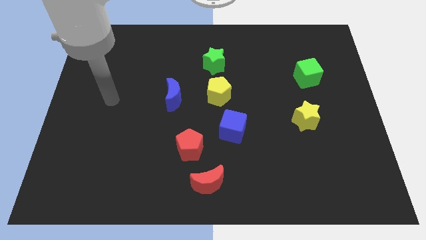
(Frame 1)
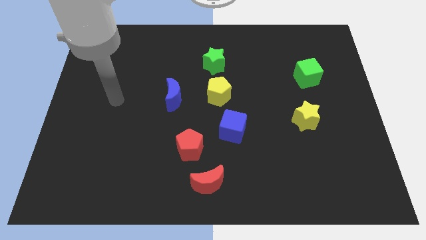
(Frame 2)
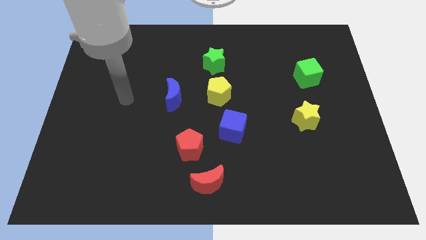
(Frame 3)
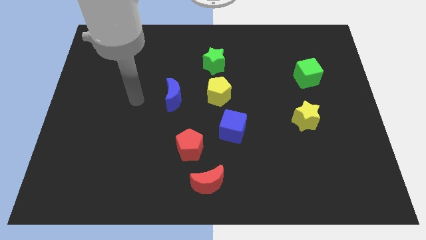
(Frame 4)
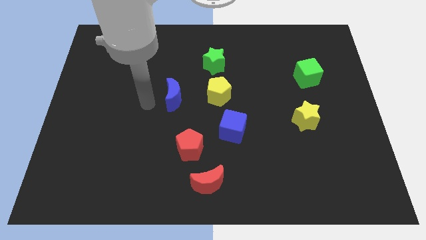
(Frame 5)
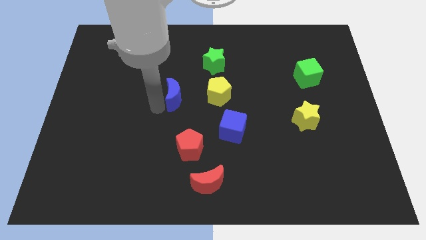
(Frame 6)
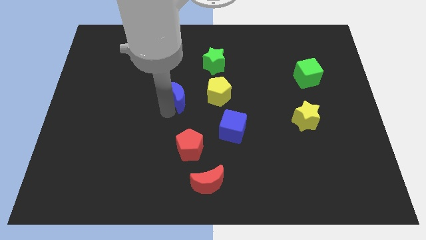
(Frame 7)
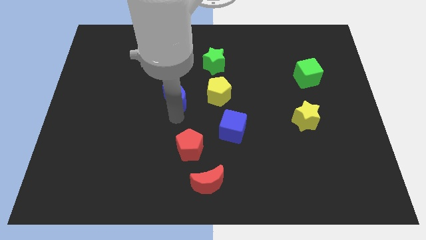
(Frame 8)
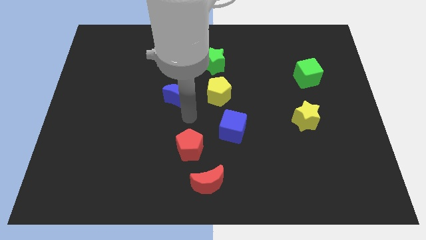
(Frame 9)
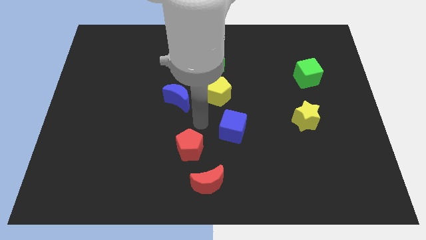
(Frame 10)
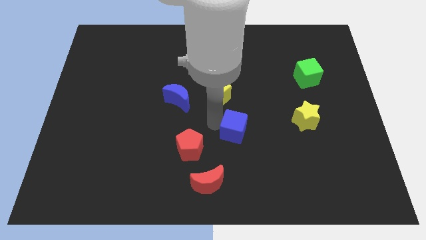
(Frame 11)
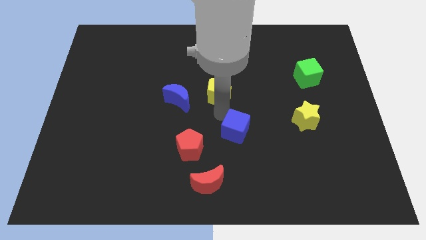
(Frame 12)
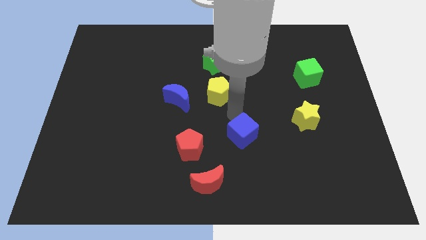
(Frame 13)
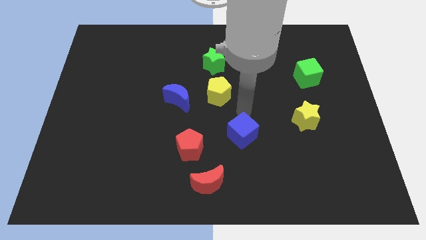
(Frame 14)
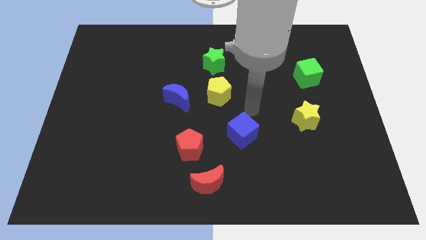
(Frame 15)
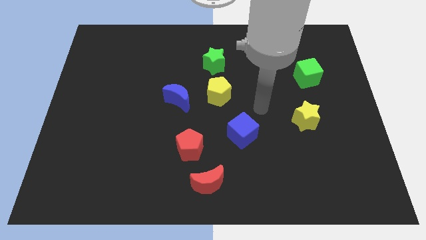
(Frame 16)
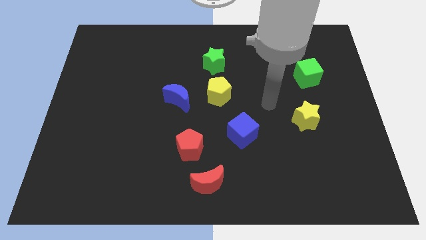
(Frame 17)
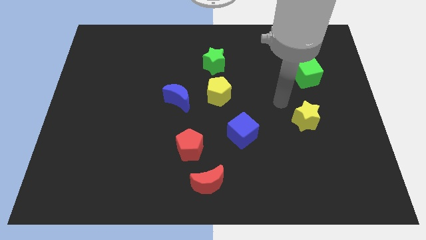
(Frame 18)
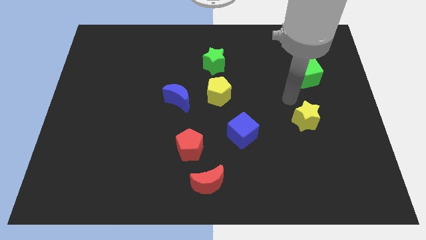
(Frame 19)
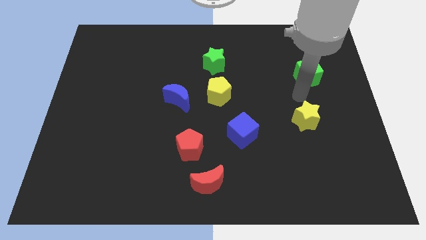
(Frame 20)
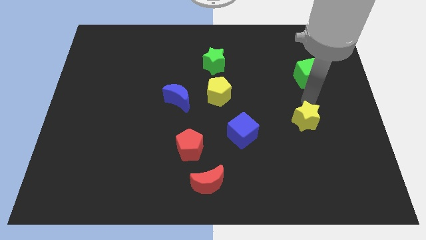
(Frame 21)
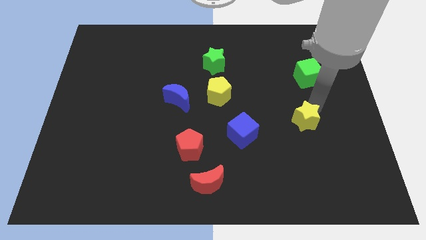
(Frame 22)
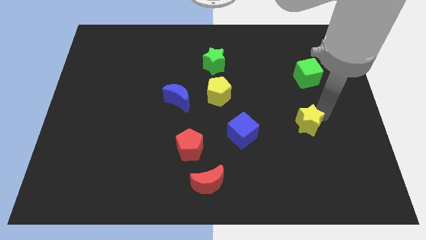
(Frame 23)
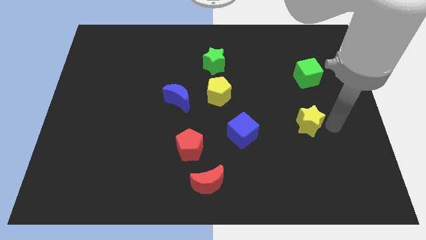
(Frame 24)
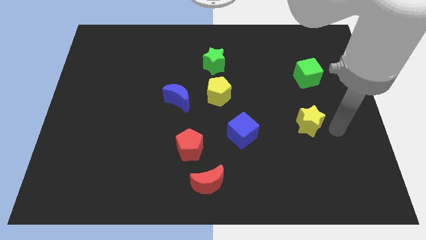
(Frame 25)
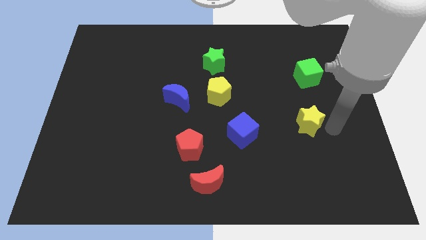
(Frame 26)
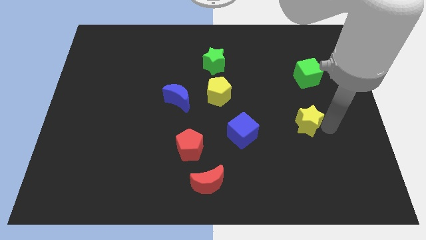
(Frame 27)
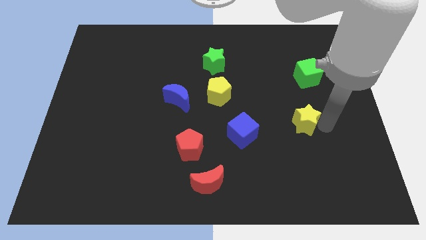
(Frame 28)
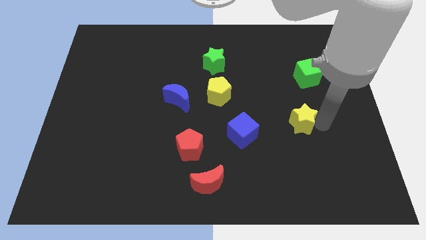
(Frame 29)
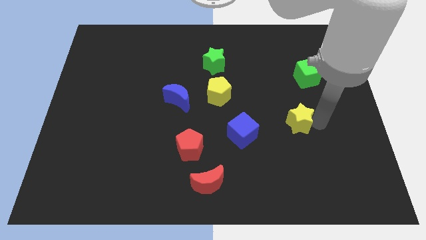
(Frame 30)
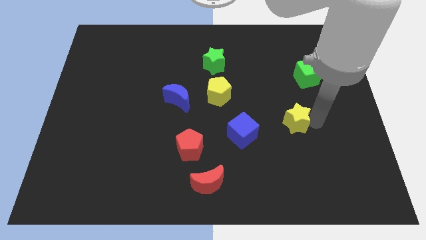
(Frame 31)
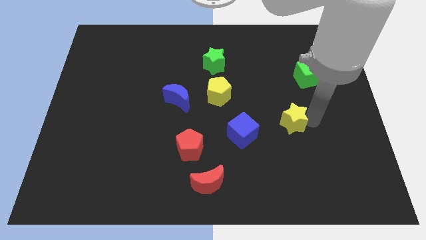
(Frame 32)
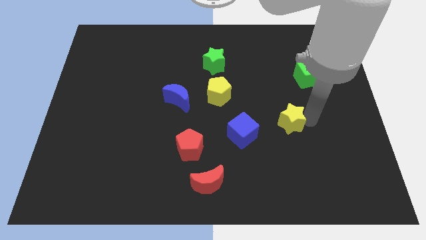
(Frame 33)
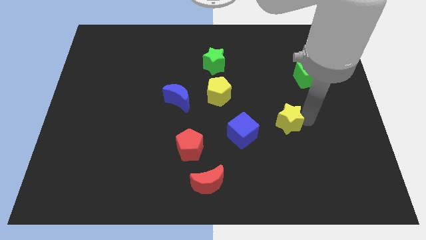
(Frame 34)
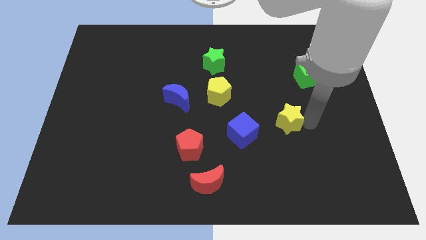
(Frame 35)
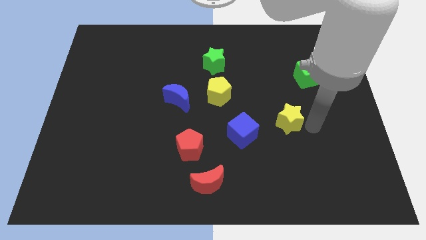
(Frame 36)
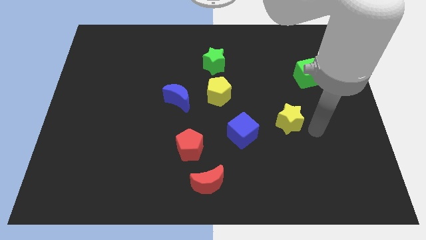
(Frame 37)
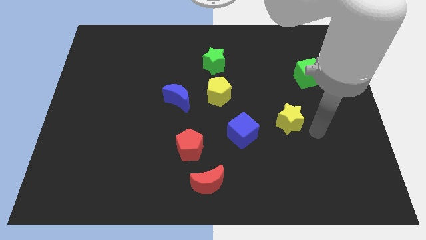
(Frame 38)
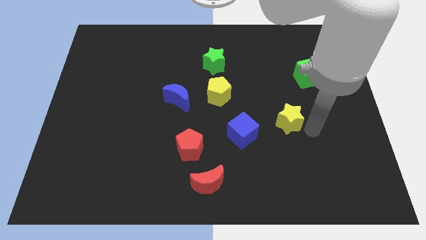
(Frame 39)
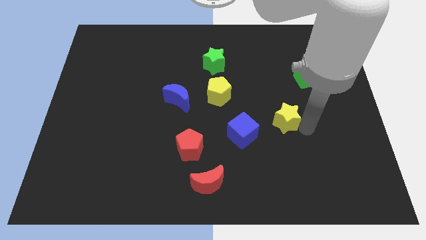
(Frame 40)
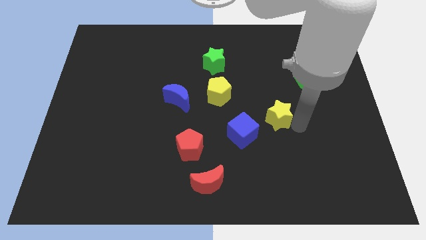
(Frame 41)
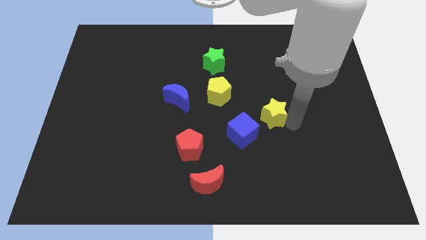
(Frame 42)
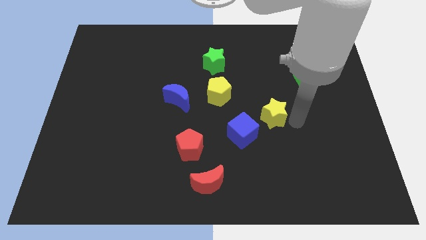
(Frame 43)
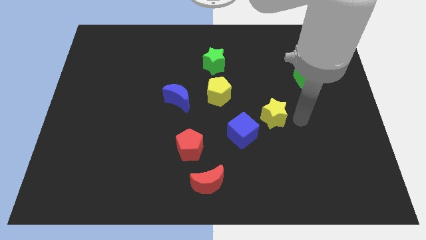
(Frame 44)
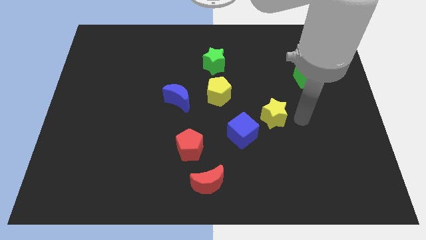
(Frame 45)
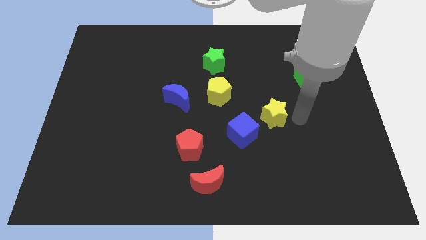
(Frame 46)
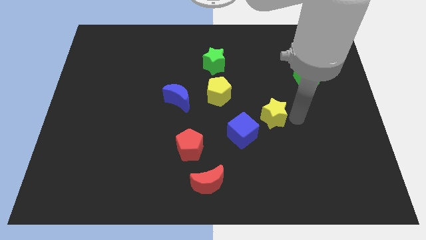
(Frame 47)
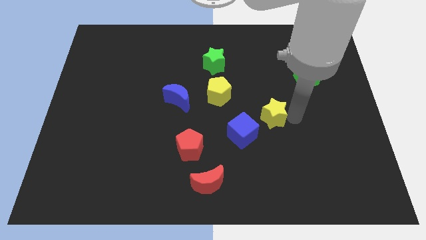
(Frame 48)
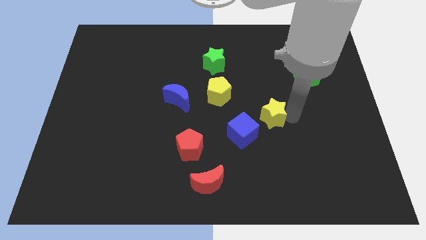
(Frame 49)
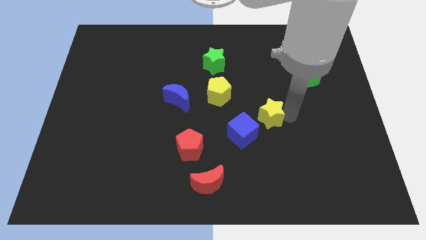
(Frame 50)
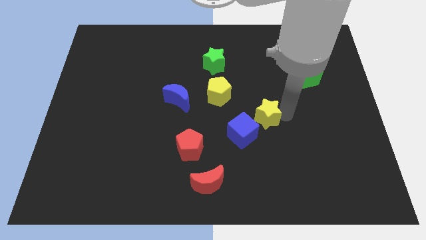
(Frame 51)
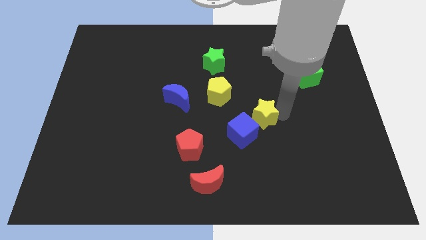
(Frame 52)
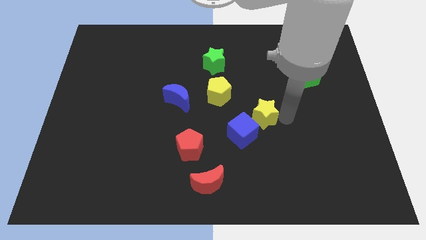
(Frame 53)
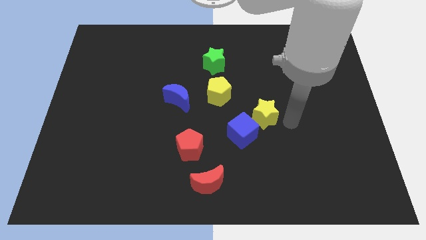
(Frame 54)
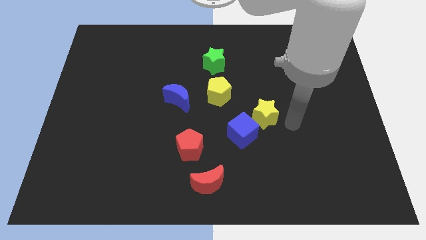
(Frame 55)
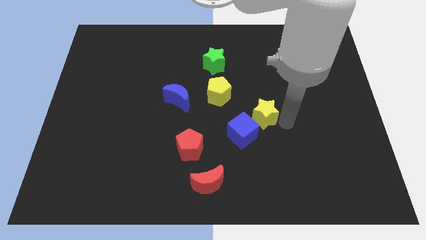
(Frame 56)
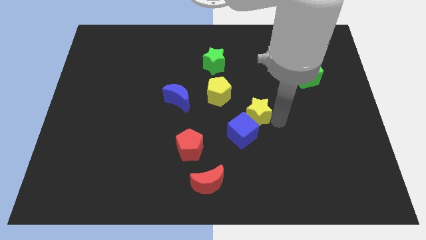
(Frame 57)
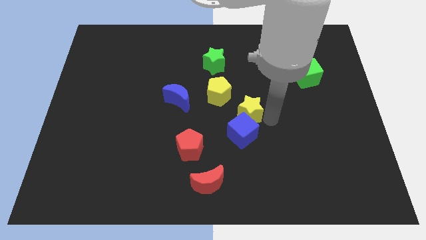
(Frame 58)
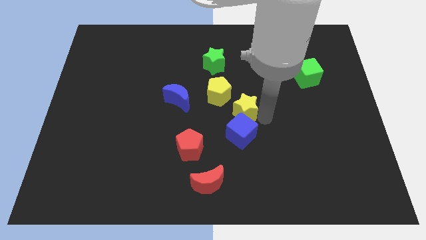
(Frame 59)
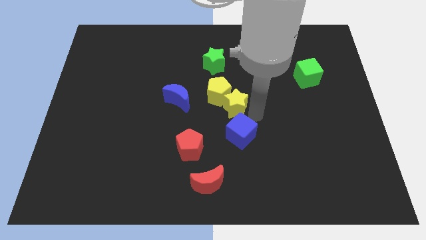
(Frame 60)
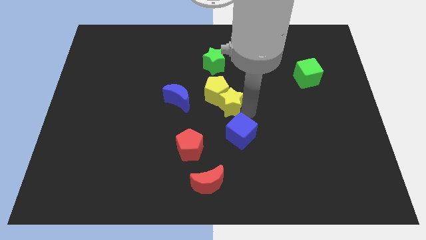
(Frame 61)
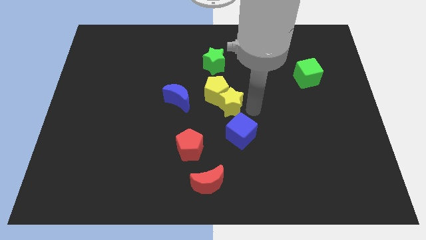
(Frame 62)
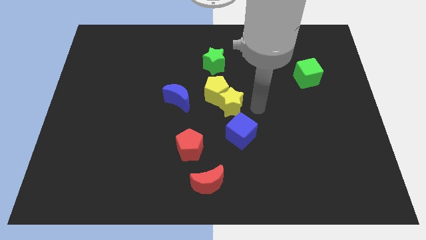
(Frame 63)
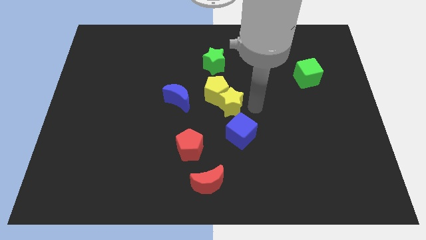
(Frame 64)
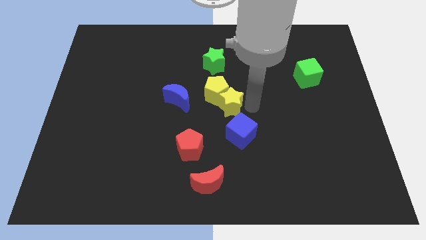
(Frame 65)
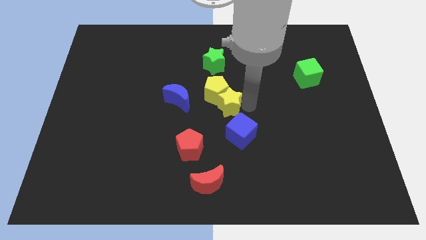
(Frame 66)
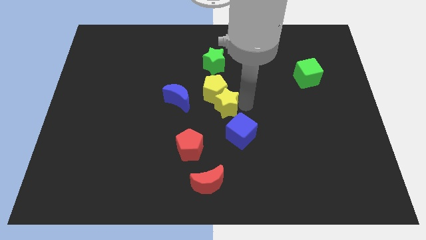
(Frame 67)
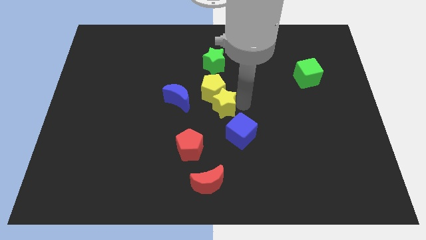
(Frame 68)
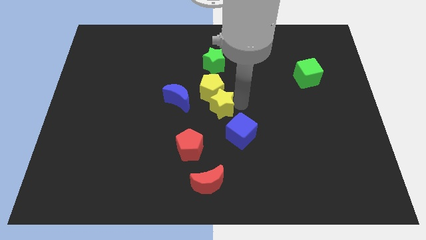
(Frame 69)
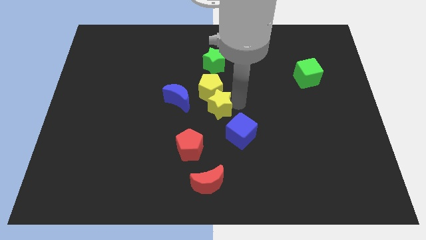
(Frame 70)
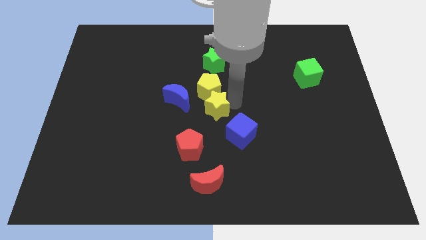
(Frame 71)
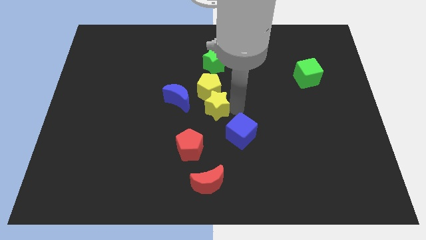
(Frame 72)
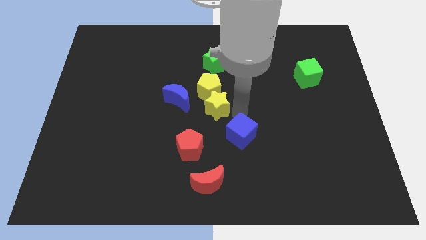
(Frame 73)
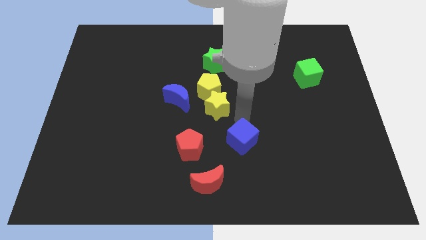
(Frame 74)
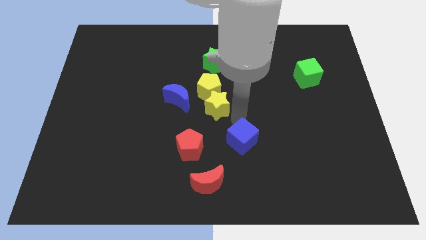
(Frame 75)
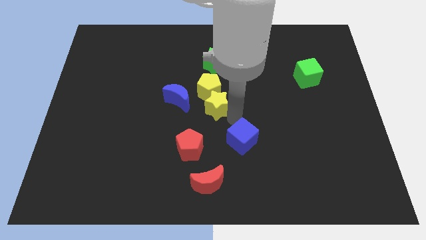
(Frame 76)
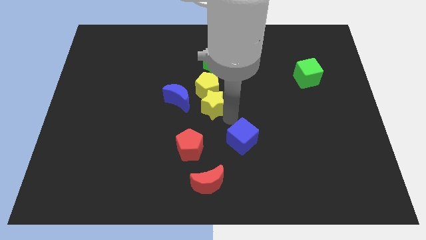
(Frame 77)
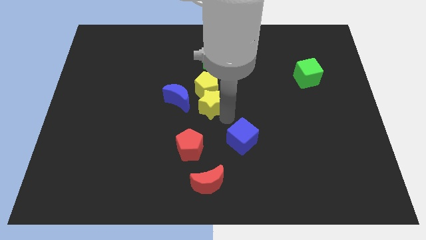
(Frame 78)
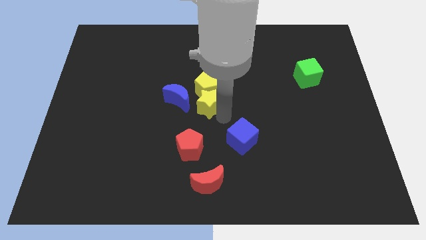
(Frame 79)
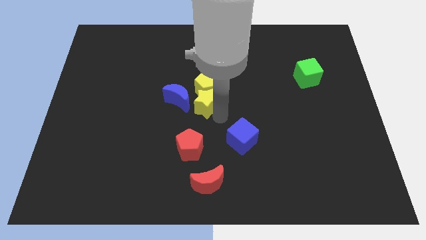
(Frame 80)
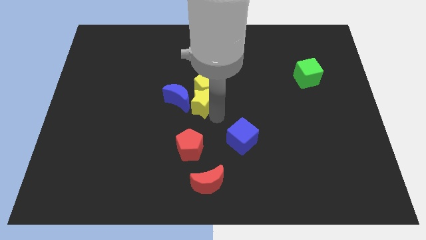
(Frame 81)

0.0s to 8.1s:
move the yellow star close to the blue moon
